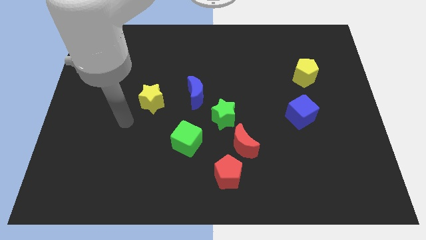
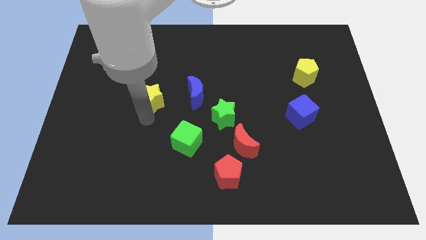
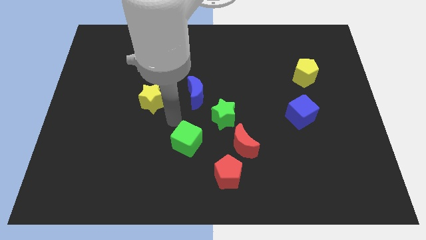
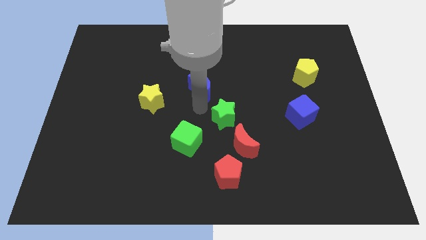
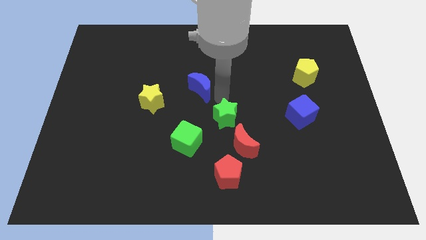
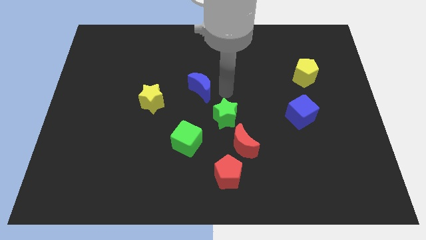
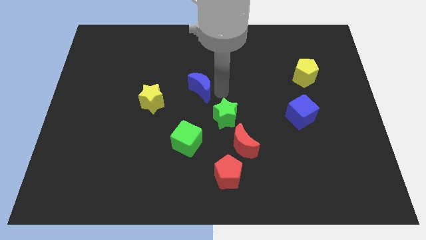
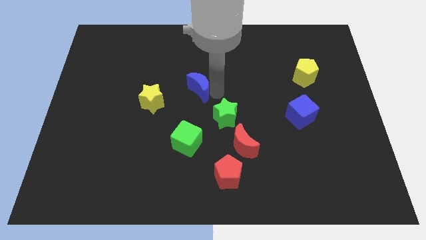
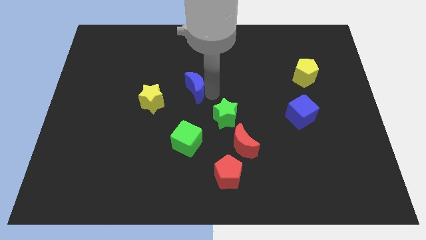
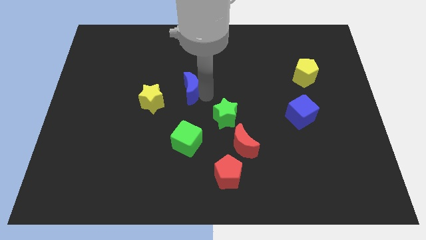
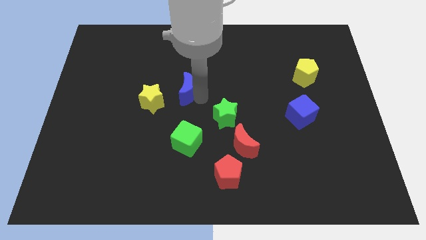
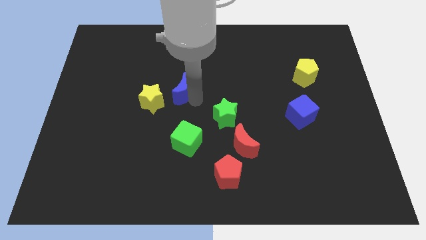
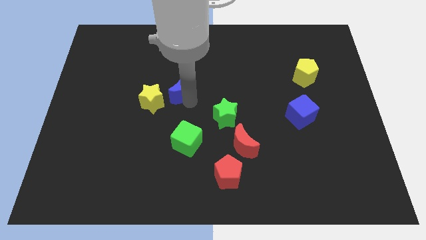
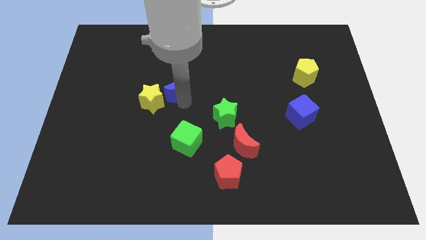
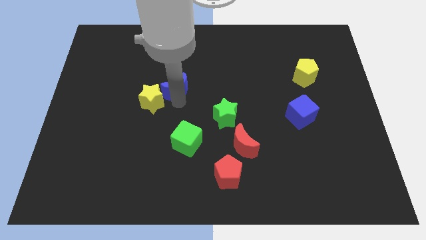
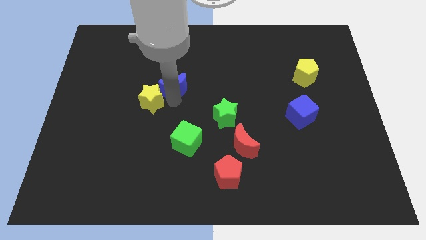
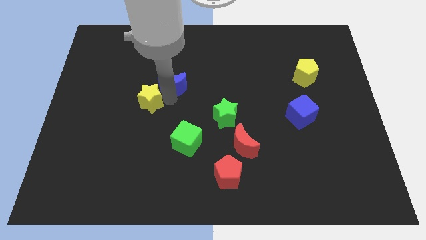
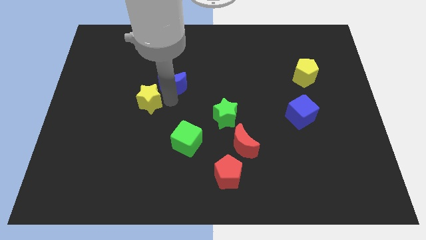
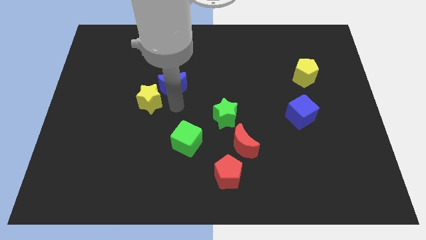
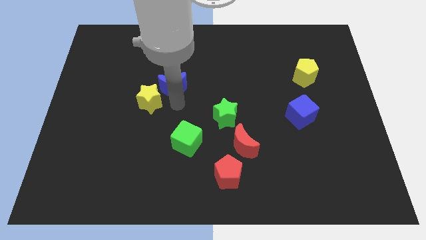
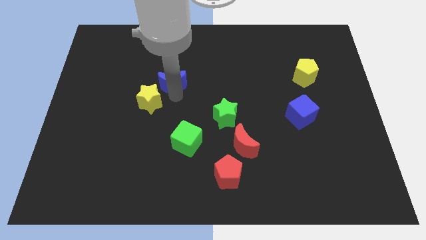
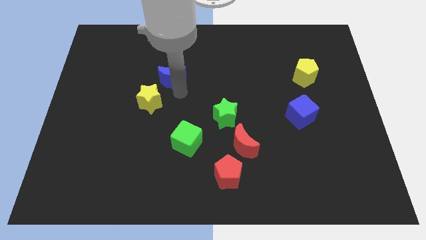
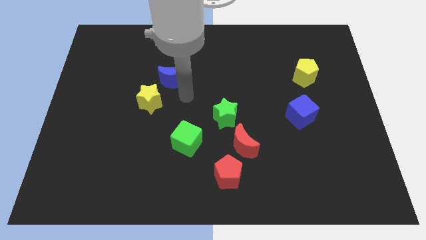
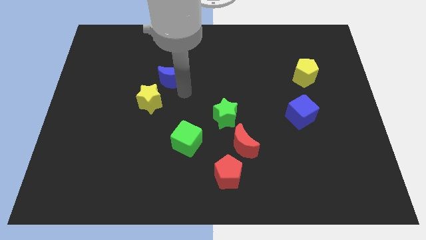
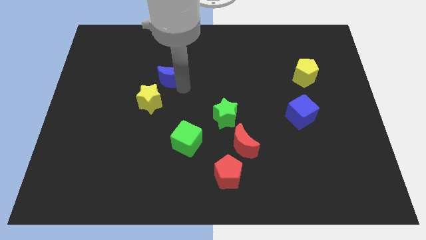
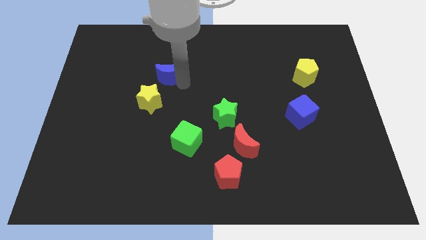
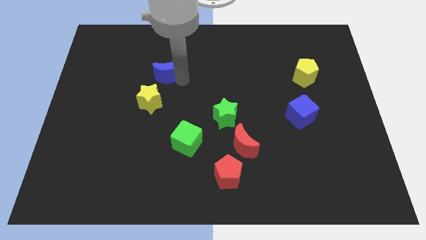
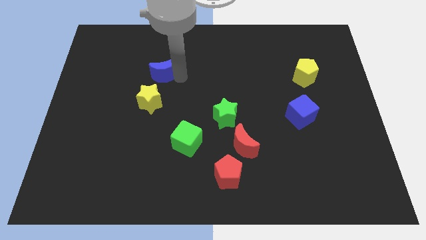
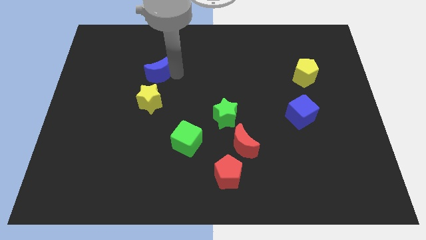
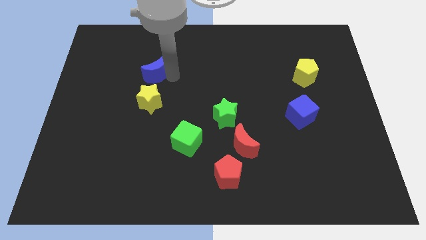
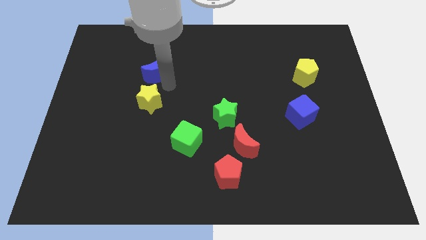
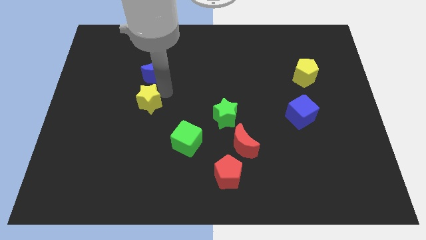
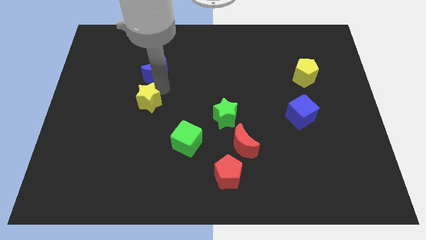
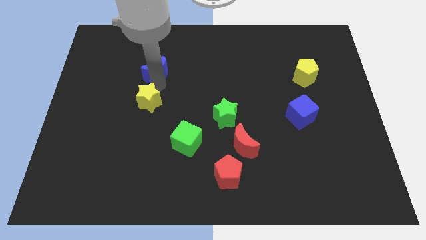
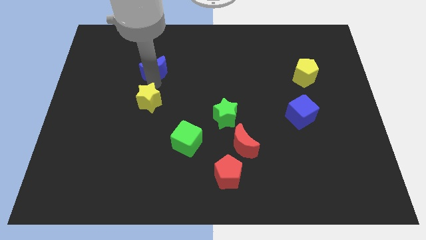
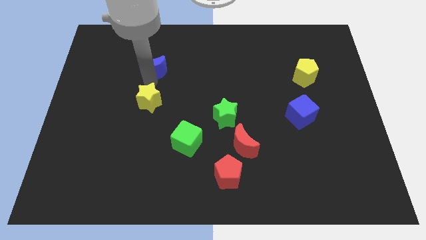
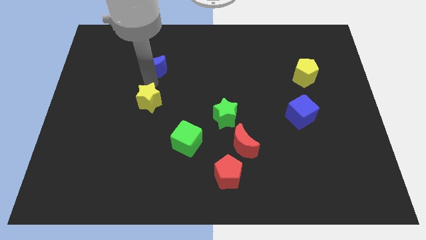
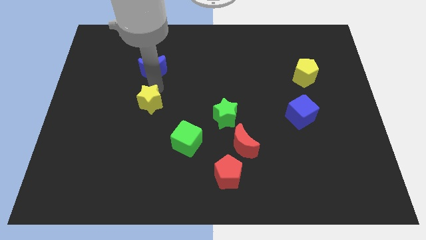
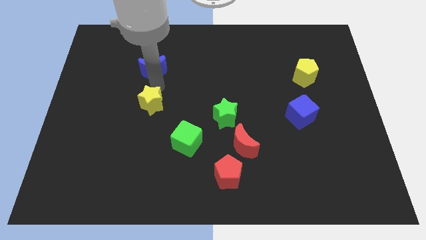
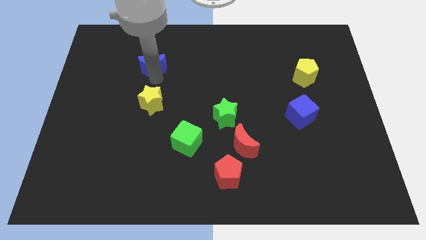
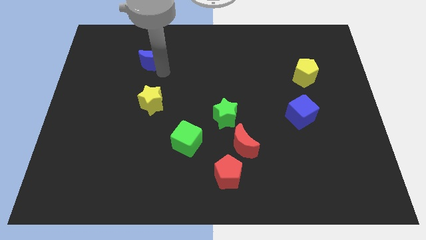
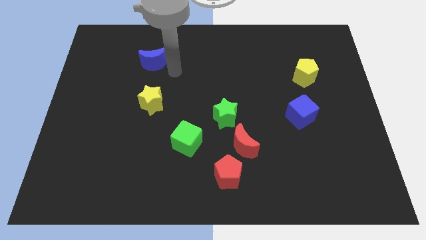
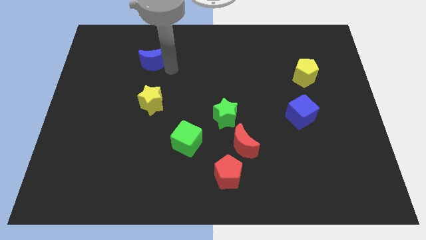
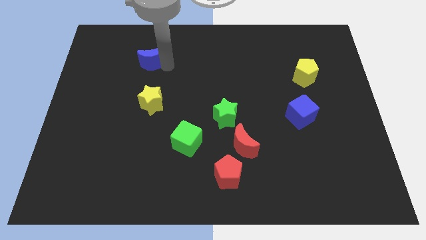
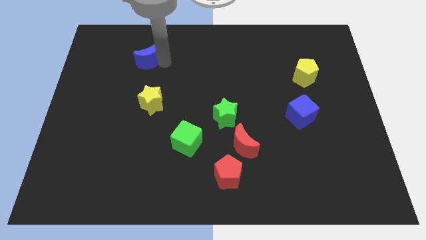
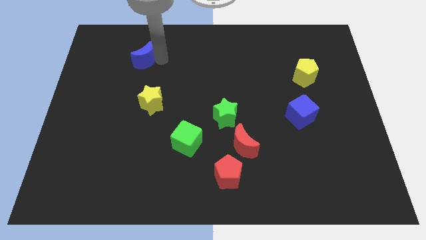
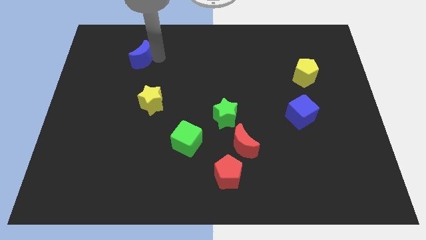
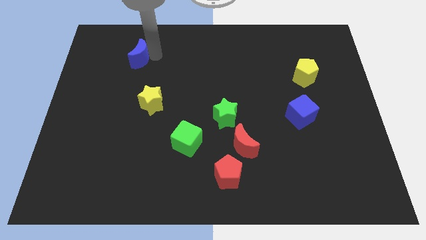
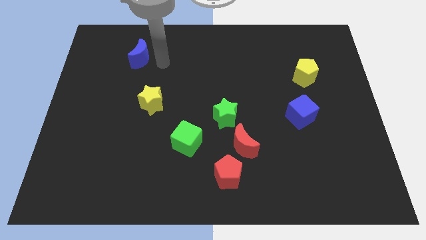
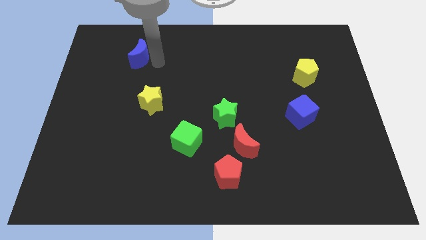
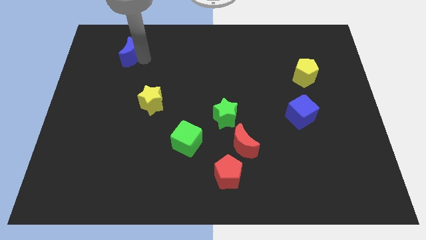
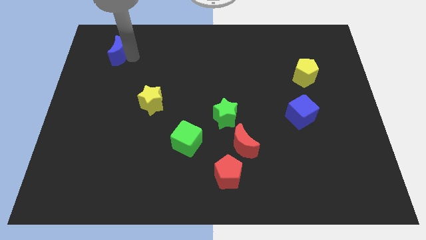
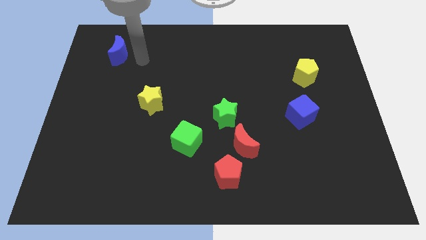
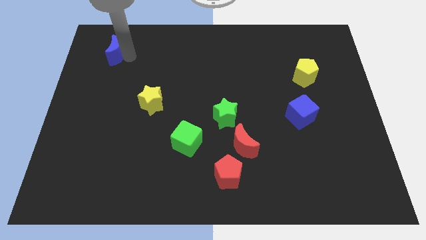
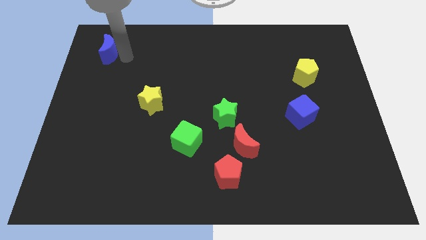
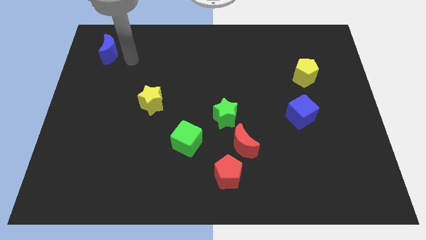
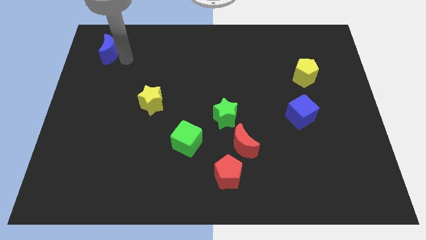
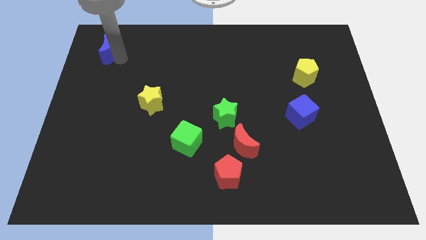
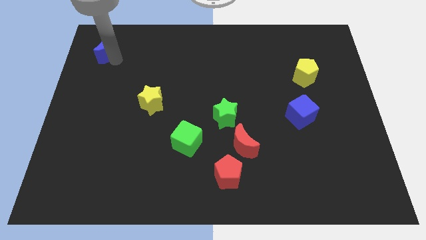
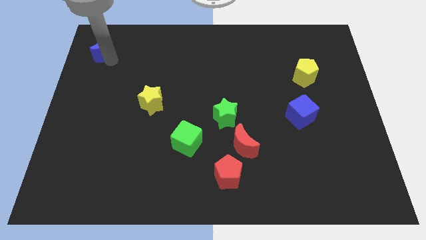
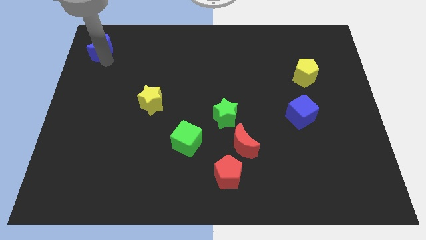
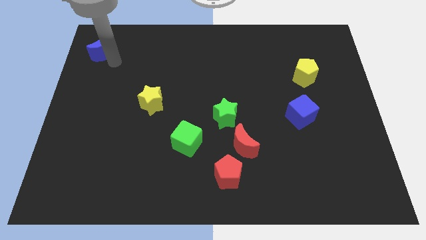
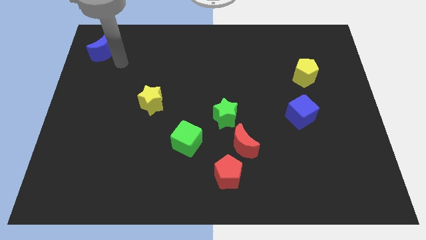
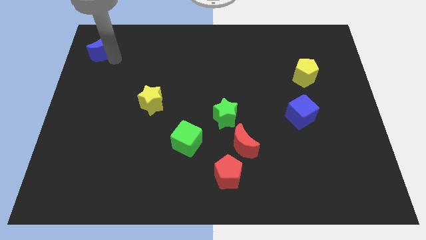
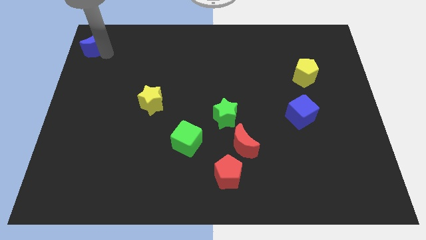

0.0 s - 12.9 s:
slide the blue moon to the upper left corner
